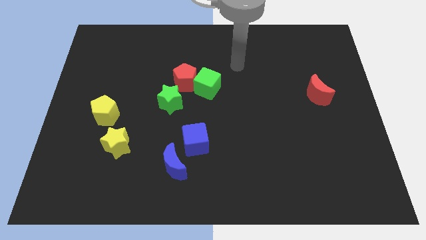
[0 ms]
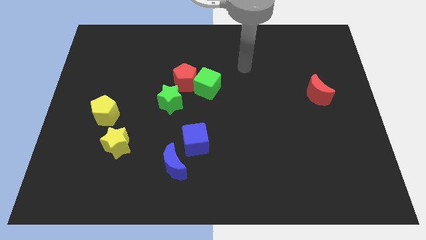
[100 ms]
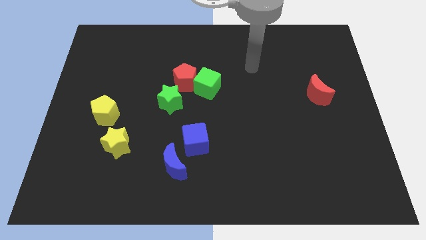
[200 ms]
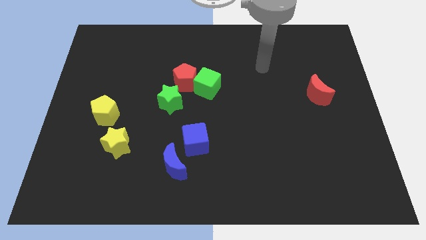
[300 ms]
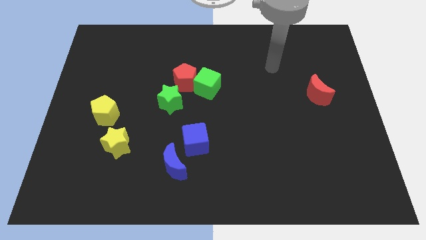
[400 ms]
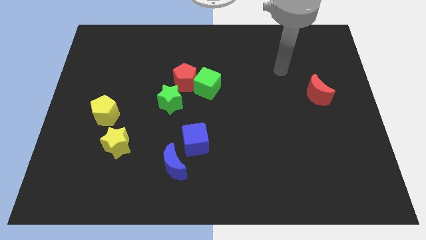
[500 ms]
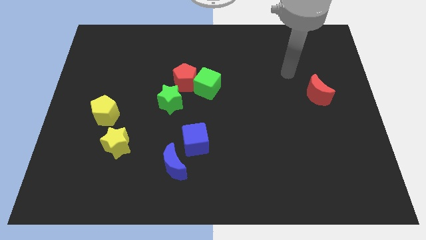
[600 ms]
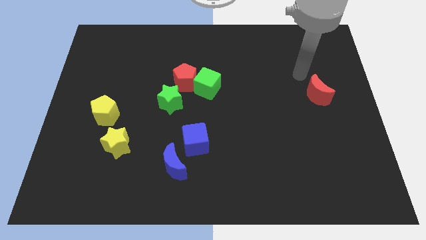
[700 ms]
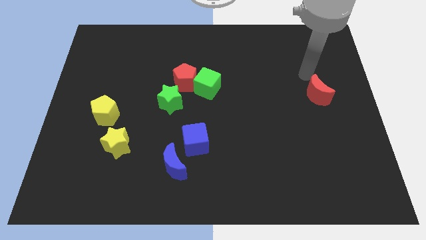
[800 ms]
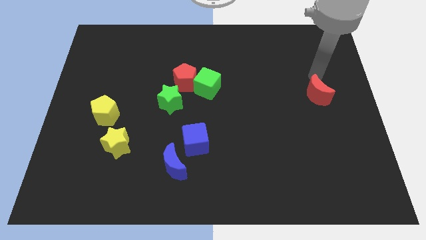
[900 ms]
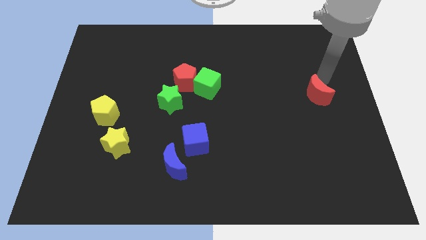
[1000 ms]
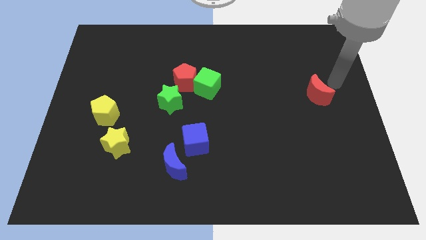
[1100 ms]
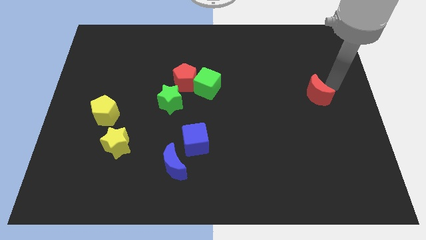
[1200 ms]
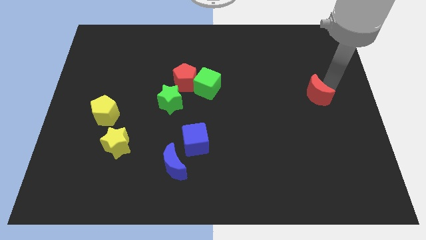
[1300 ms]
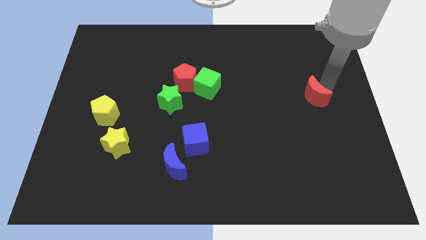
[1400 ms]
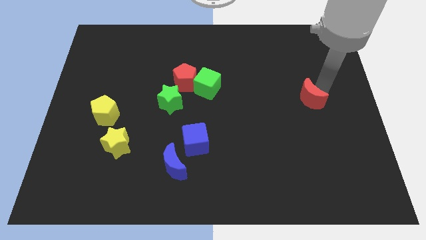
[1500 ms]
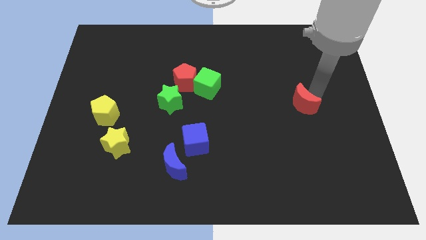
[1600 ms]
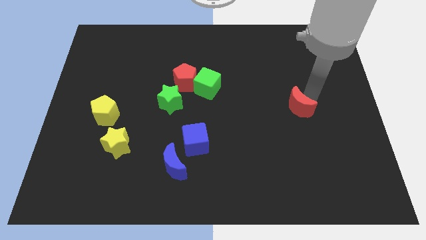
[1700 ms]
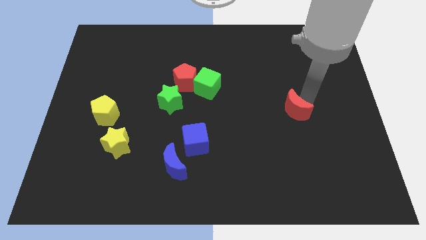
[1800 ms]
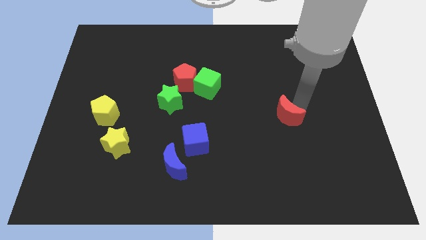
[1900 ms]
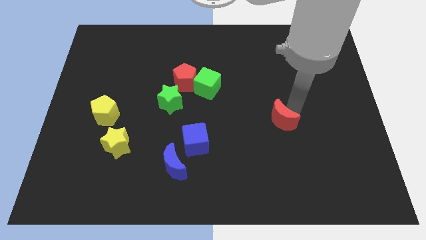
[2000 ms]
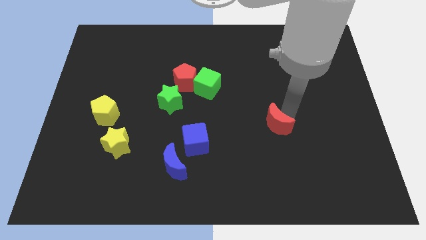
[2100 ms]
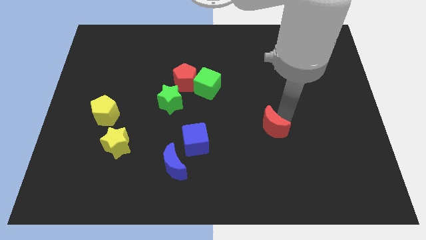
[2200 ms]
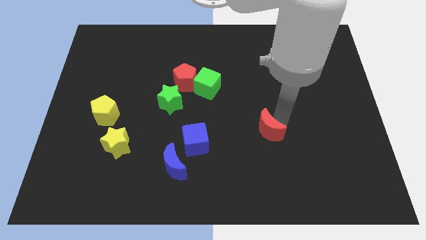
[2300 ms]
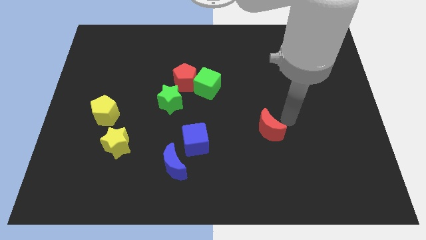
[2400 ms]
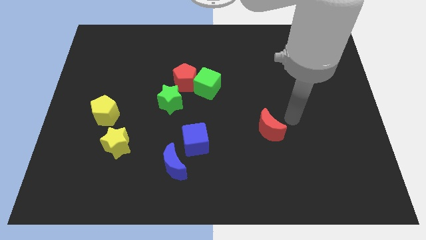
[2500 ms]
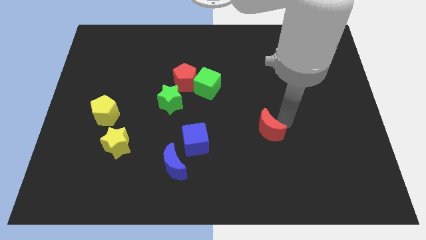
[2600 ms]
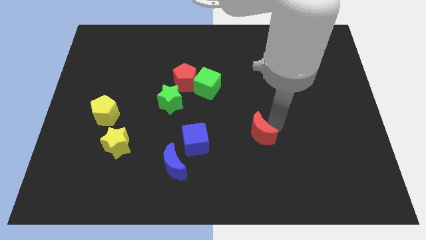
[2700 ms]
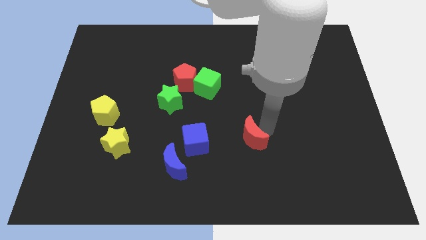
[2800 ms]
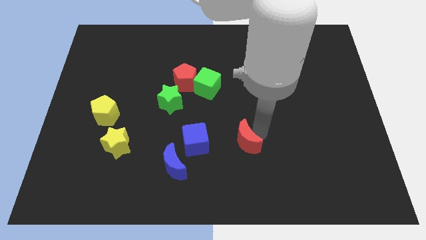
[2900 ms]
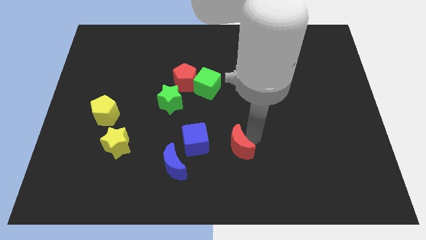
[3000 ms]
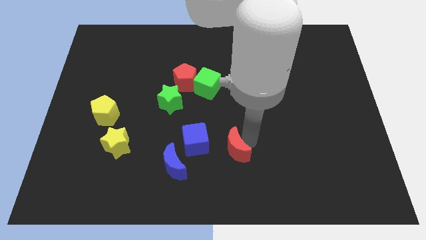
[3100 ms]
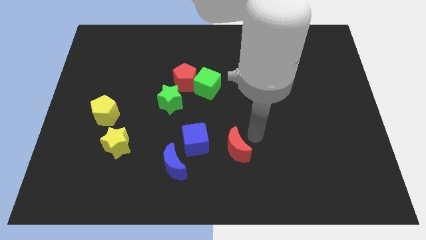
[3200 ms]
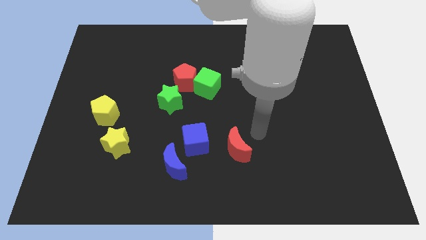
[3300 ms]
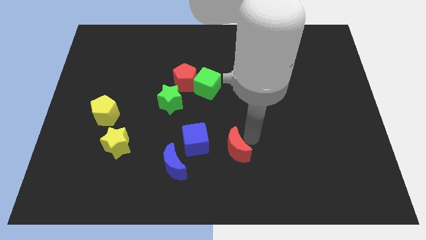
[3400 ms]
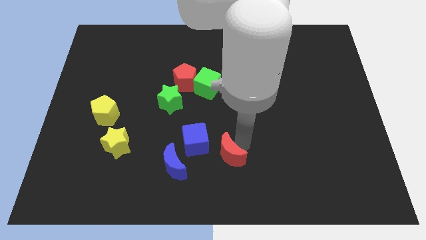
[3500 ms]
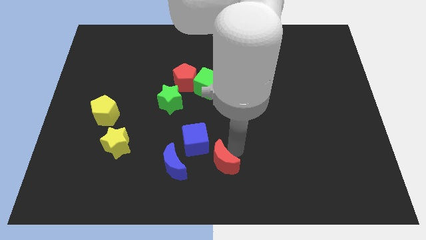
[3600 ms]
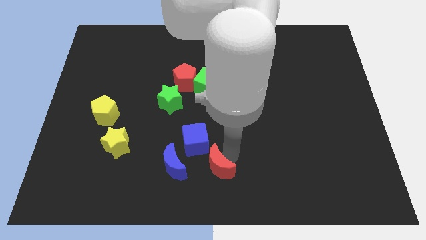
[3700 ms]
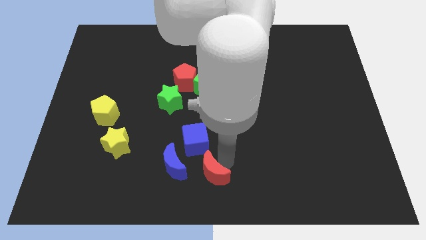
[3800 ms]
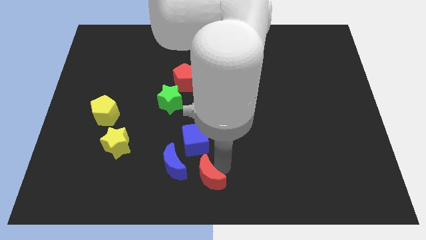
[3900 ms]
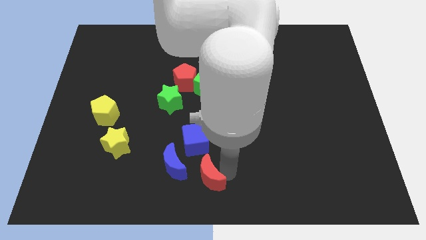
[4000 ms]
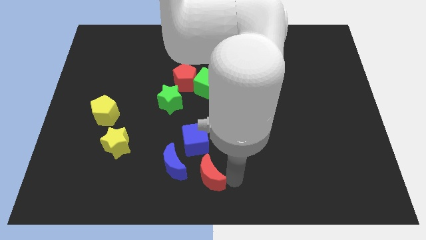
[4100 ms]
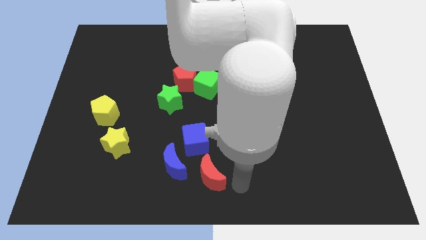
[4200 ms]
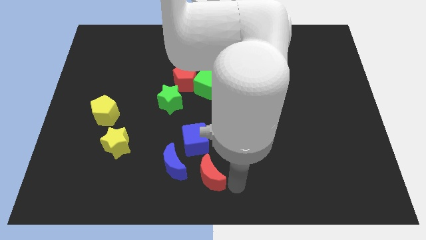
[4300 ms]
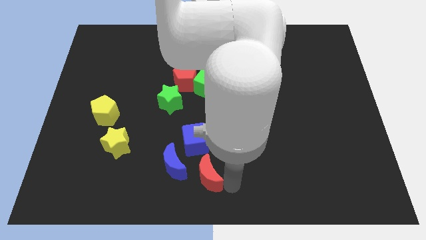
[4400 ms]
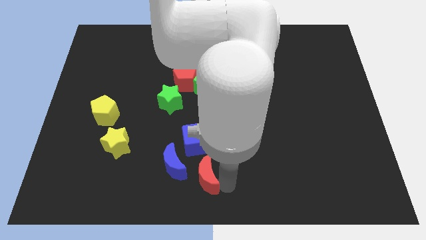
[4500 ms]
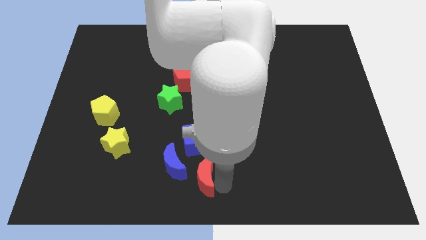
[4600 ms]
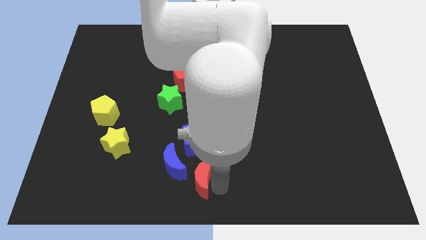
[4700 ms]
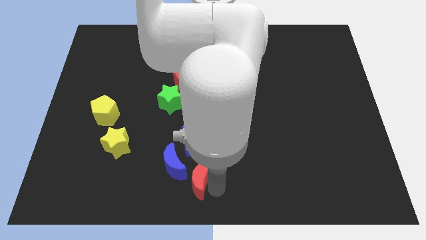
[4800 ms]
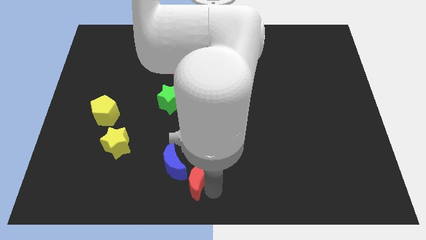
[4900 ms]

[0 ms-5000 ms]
put the red moon towards the blue moon

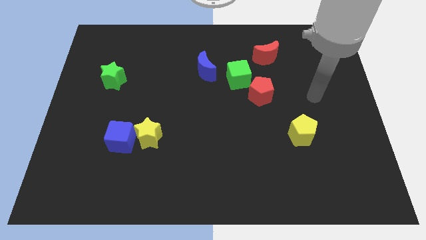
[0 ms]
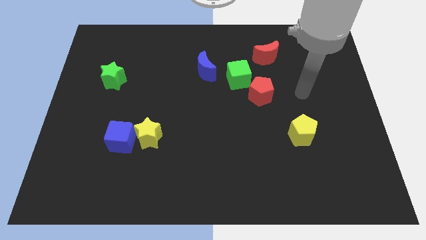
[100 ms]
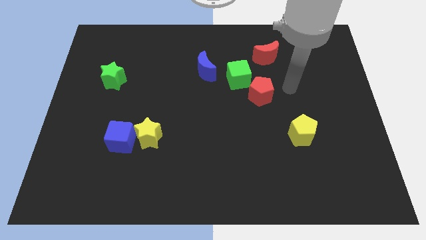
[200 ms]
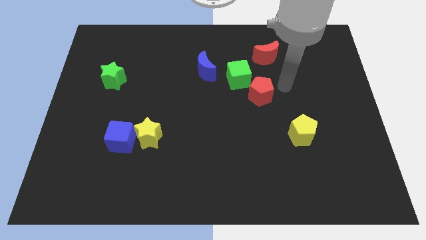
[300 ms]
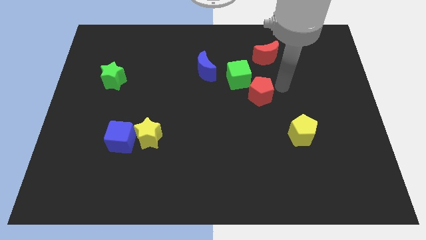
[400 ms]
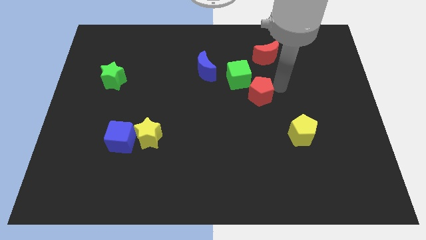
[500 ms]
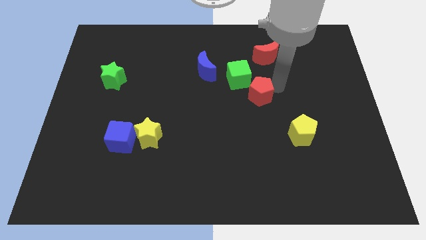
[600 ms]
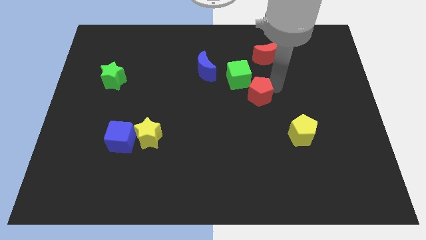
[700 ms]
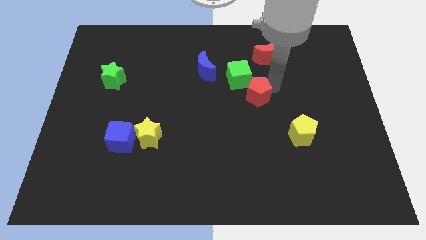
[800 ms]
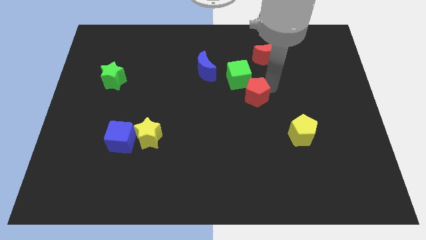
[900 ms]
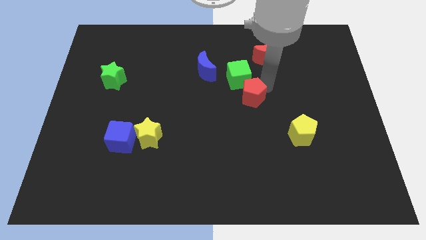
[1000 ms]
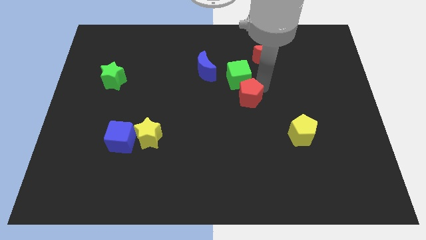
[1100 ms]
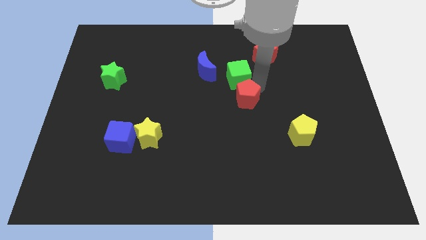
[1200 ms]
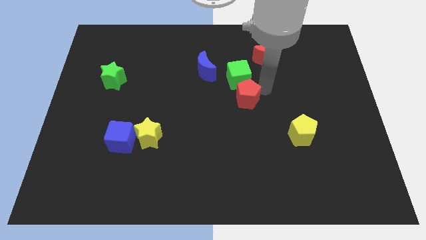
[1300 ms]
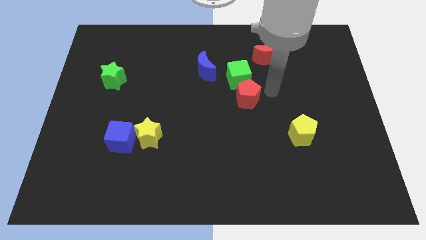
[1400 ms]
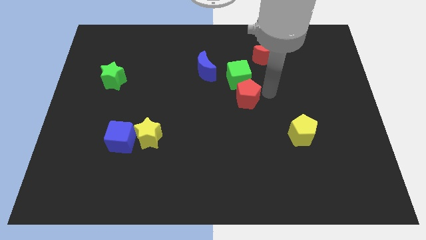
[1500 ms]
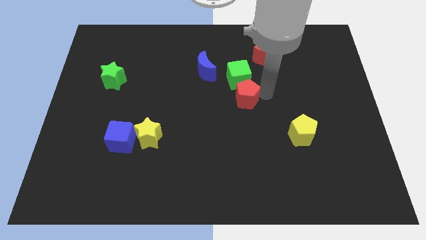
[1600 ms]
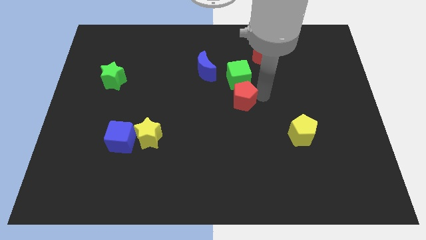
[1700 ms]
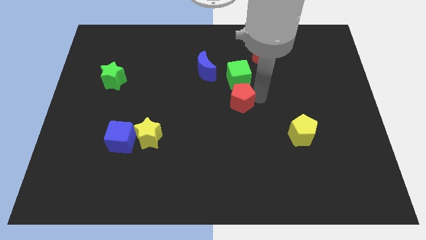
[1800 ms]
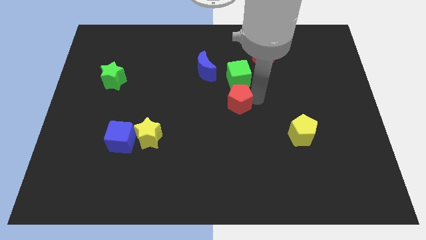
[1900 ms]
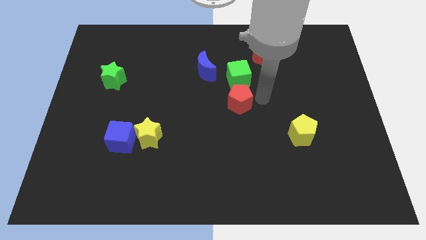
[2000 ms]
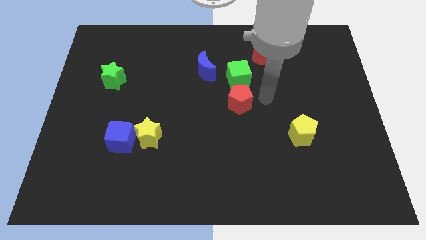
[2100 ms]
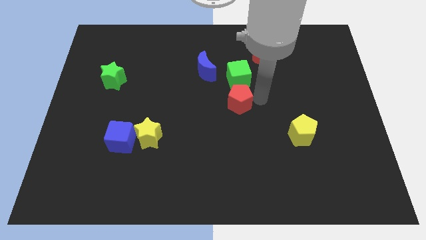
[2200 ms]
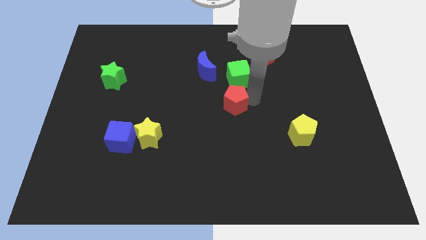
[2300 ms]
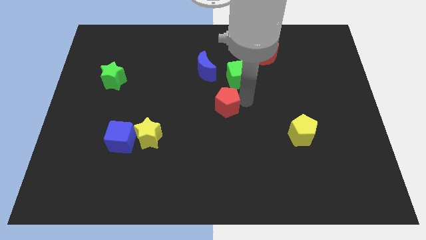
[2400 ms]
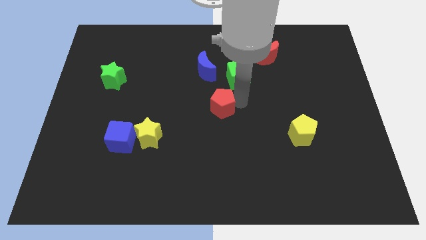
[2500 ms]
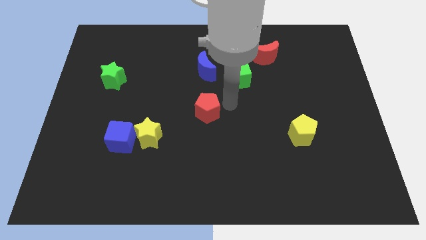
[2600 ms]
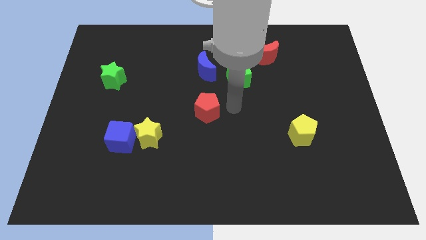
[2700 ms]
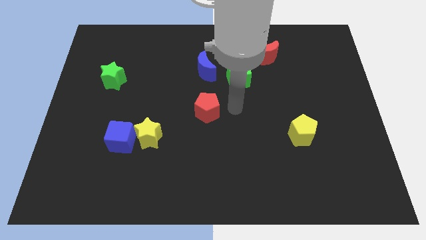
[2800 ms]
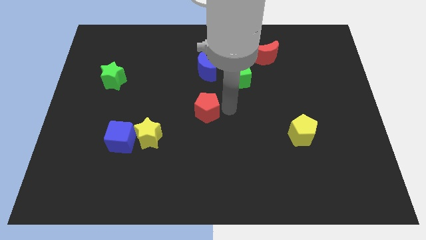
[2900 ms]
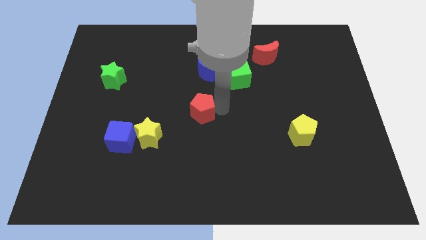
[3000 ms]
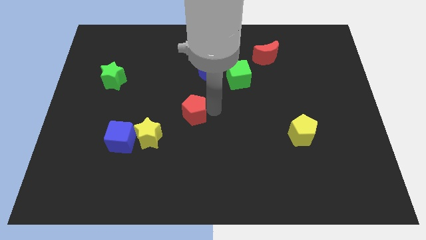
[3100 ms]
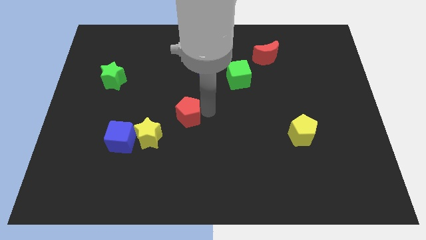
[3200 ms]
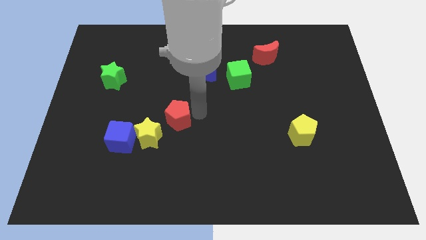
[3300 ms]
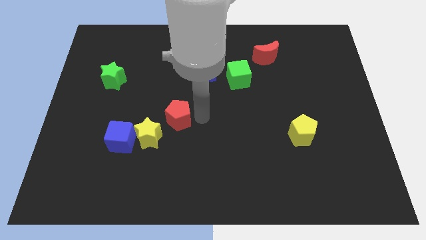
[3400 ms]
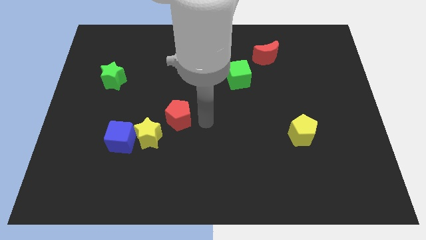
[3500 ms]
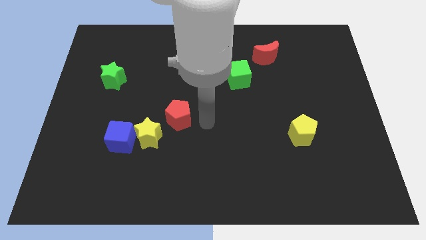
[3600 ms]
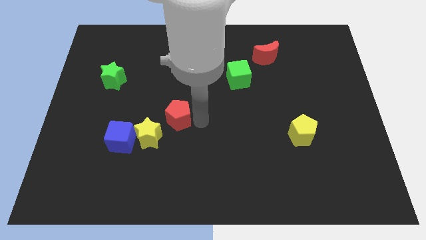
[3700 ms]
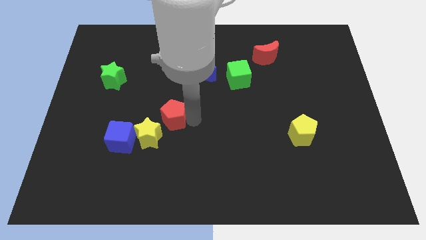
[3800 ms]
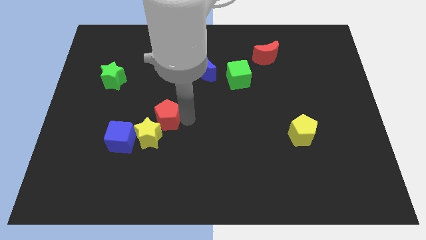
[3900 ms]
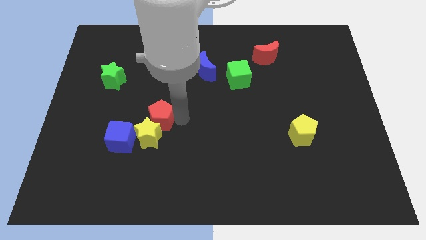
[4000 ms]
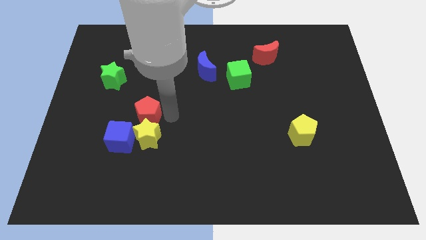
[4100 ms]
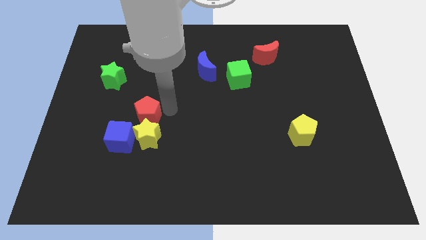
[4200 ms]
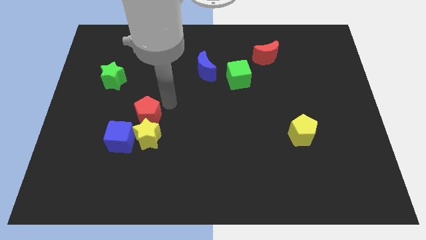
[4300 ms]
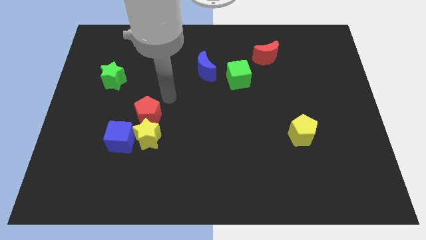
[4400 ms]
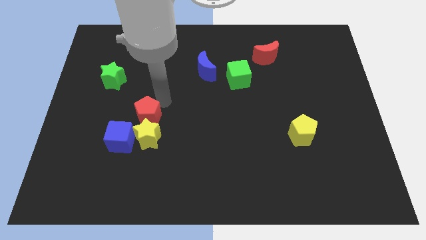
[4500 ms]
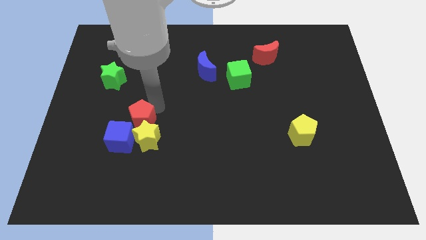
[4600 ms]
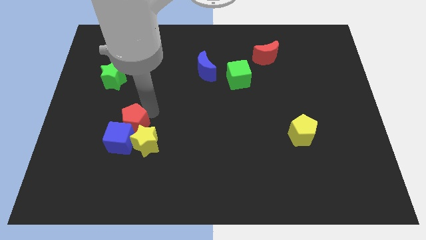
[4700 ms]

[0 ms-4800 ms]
push the red pentagon towards the blue cube
